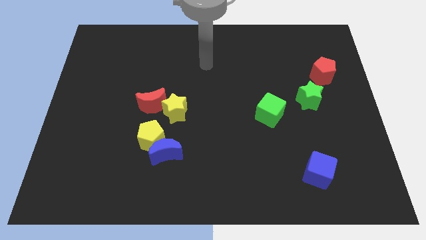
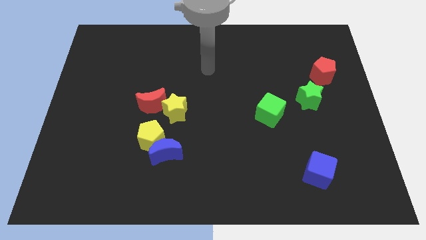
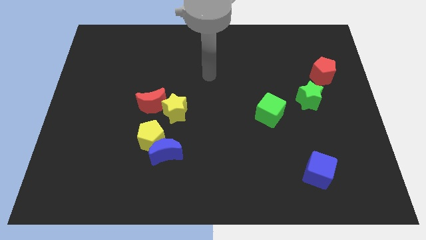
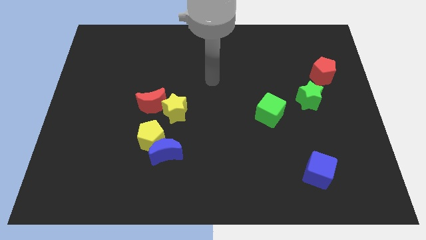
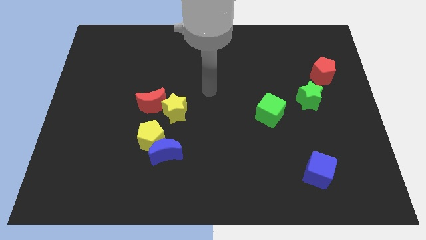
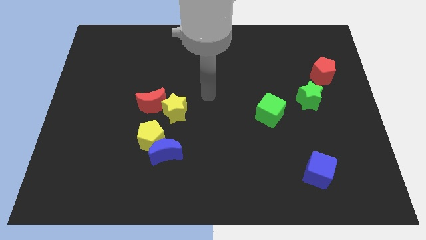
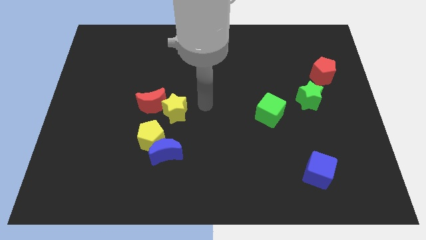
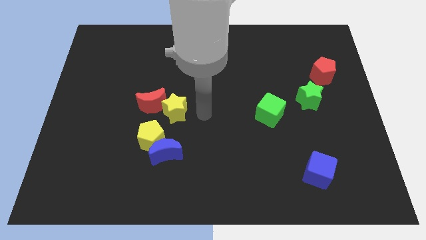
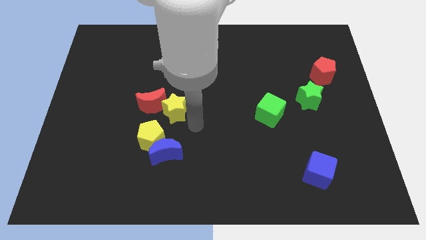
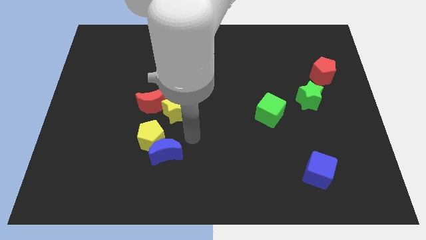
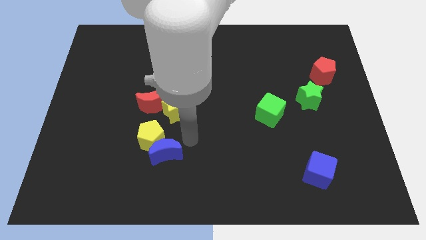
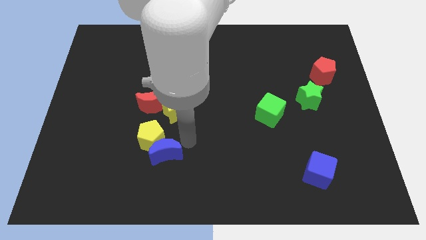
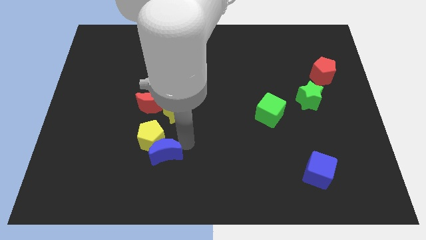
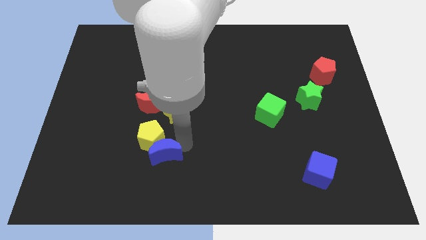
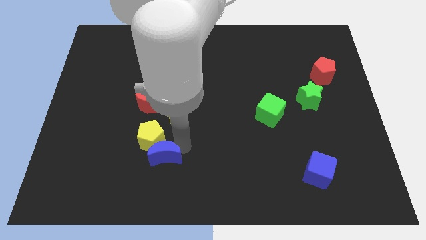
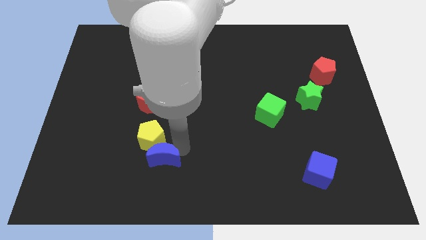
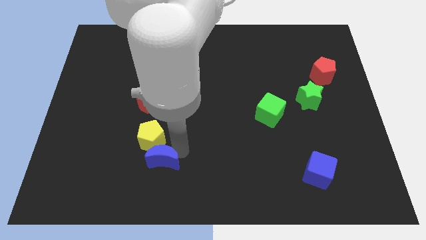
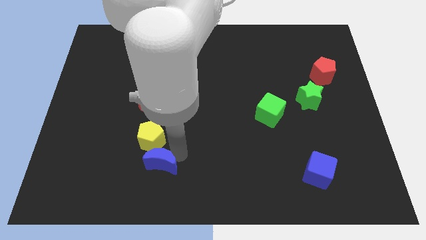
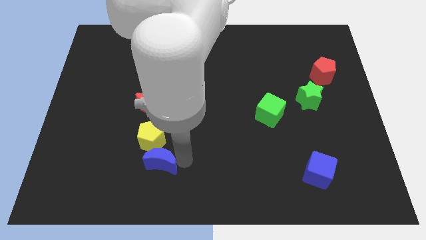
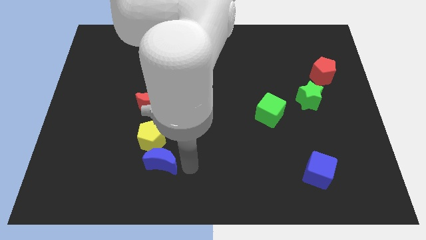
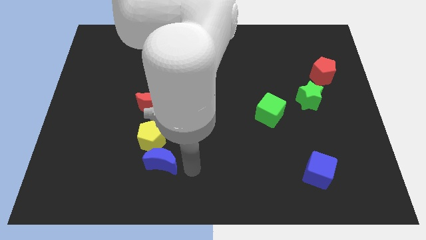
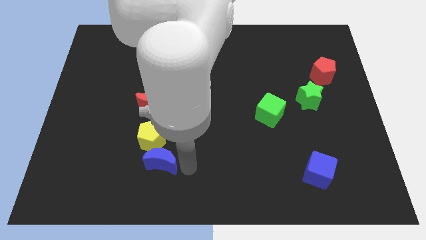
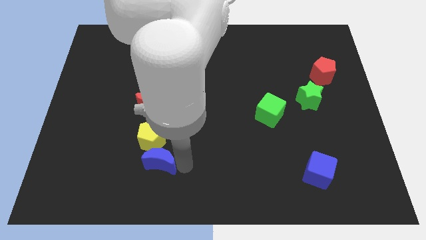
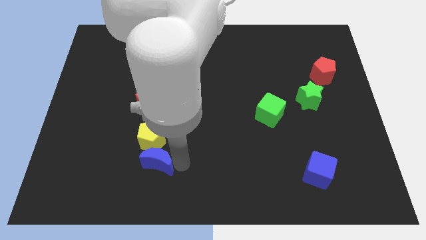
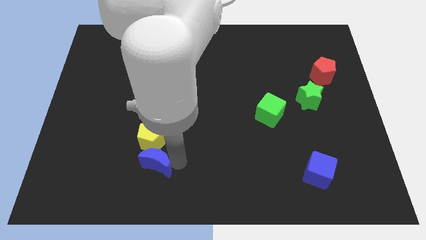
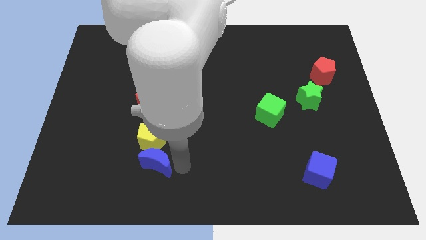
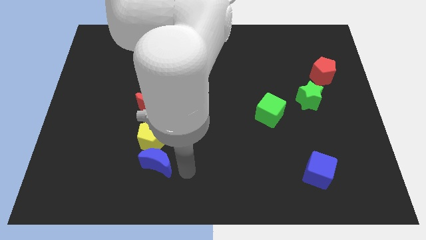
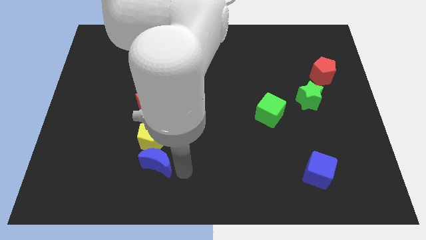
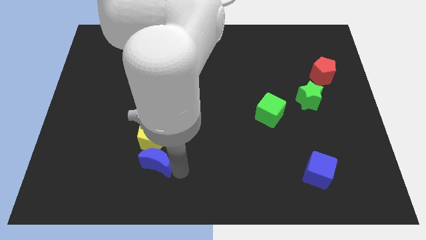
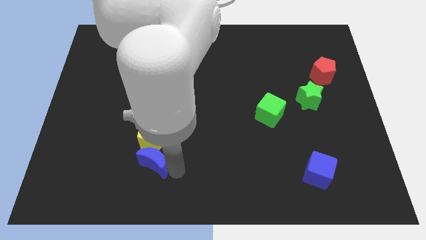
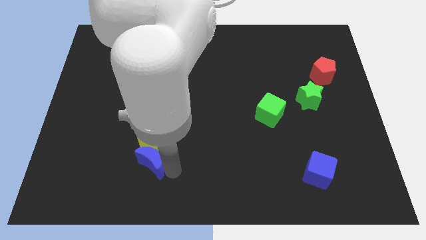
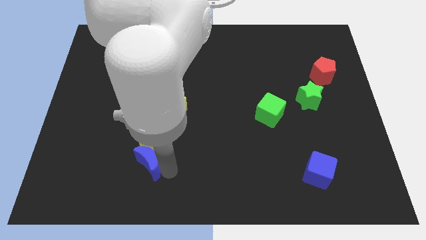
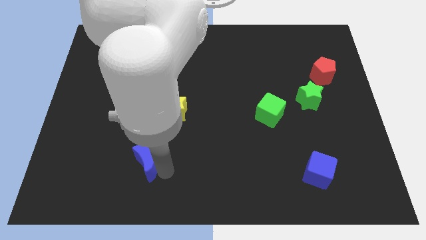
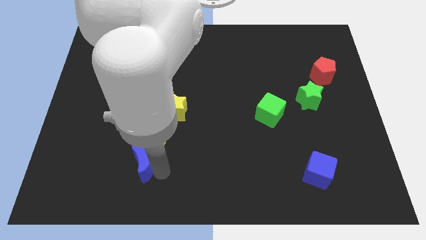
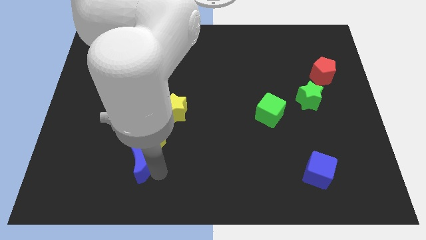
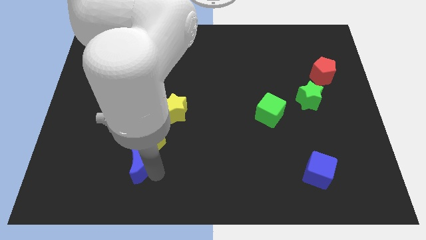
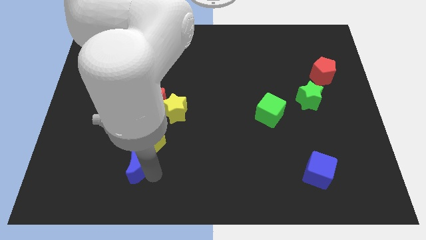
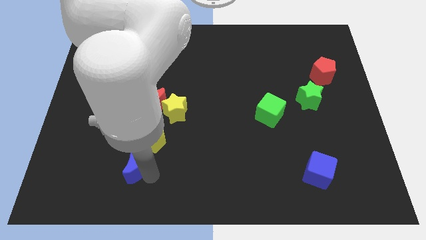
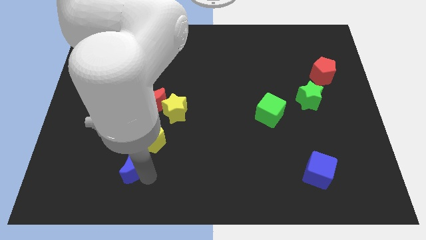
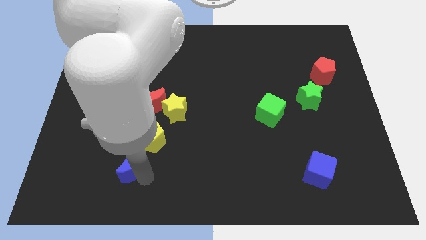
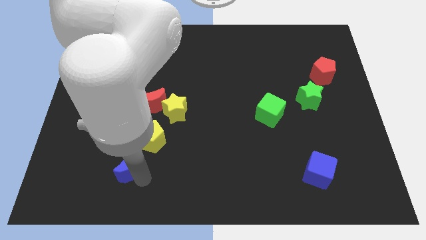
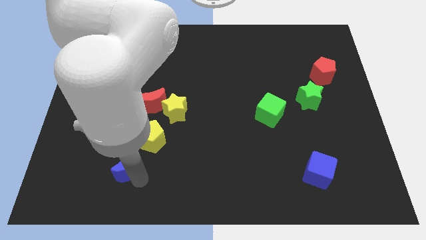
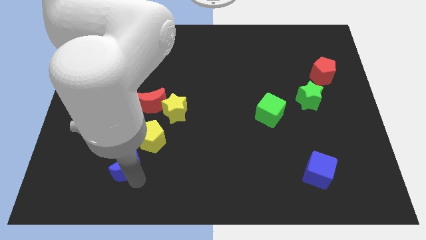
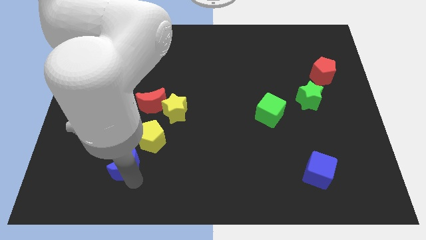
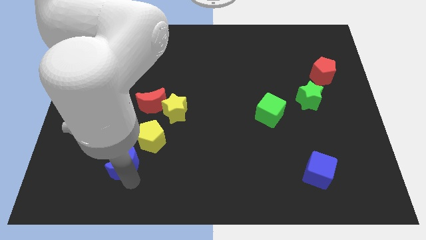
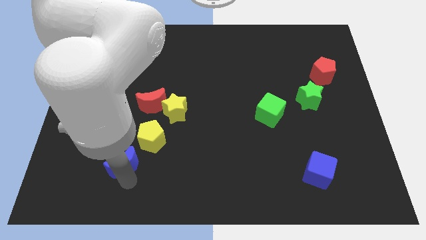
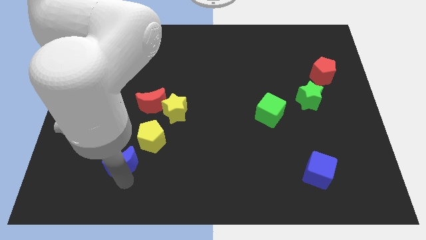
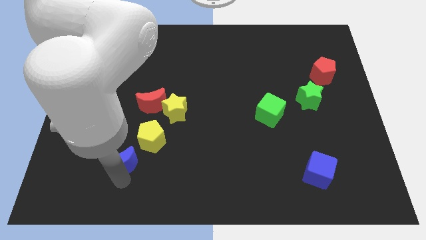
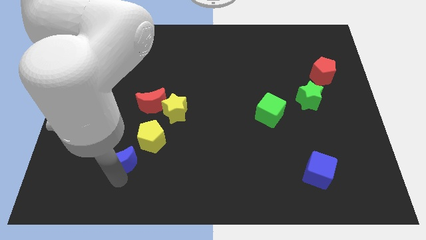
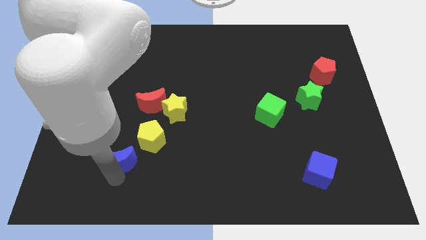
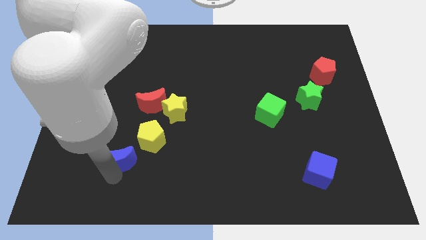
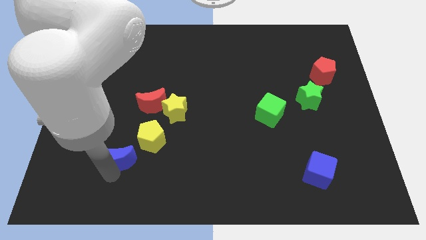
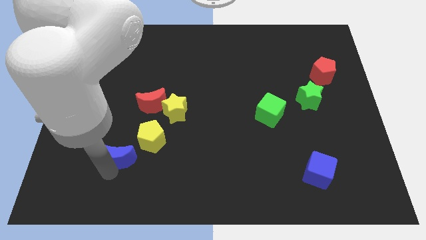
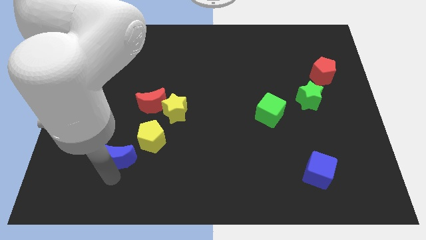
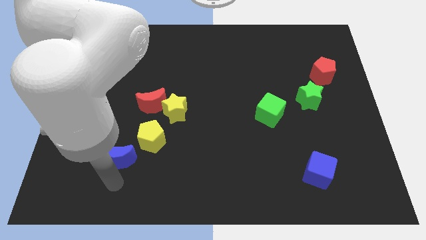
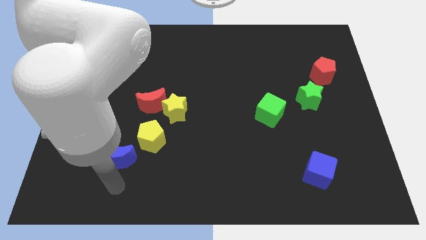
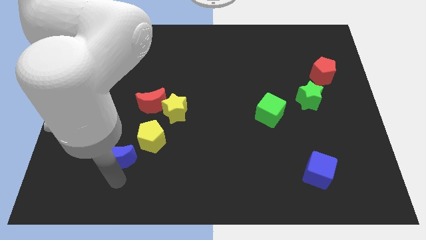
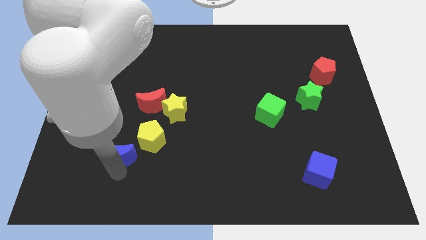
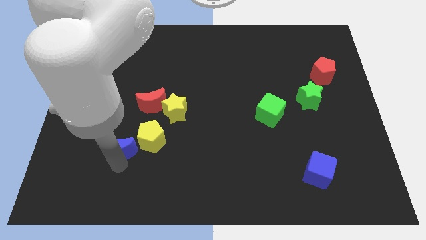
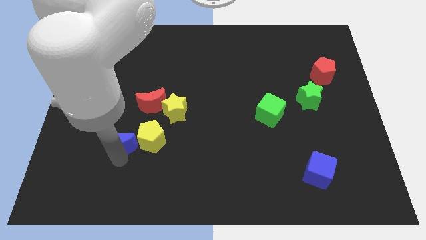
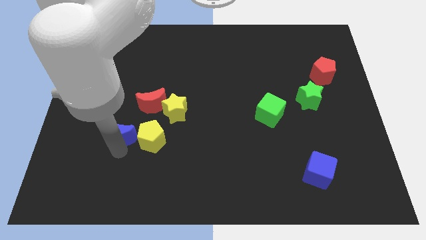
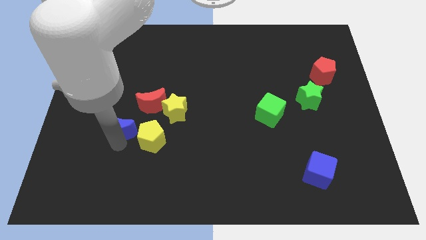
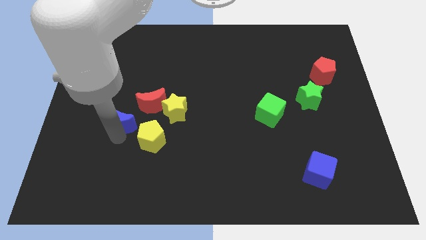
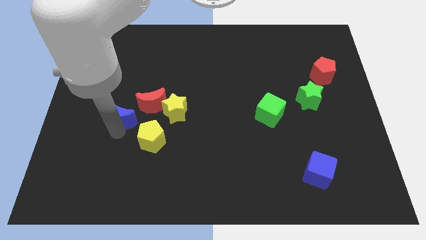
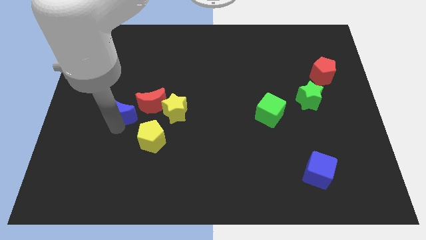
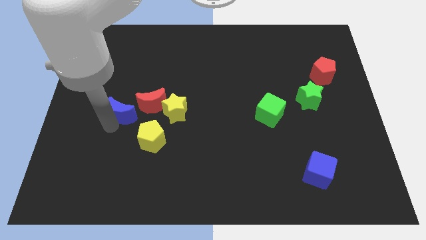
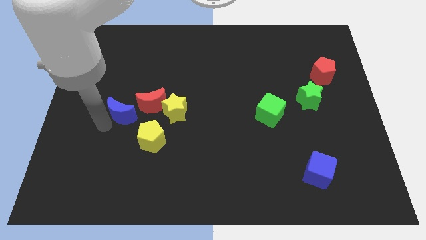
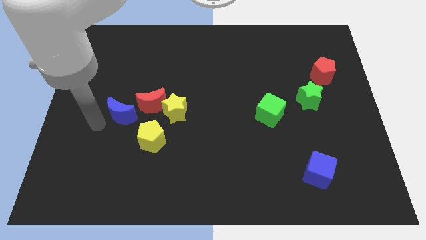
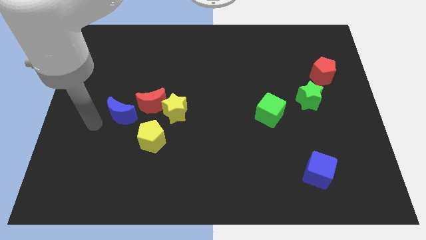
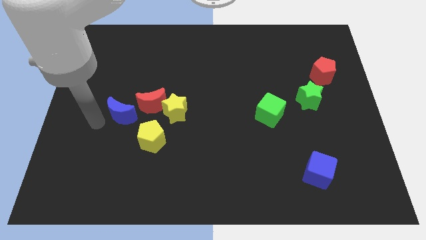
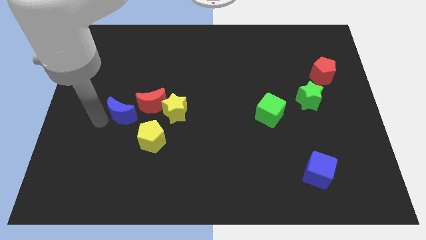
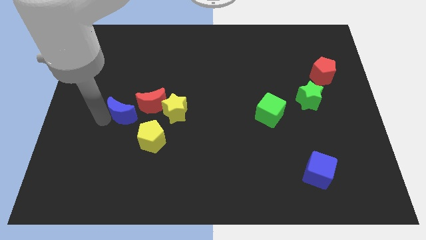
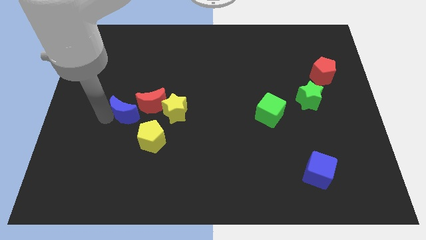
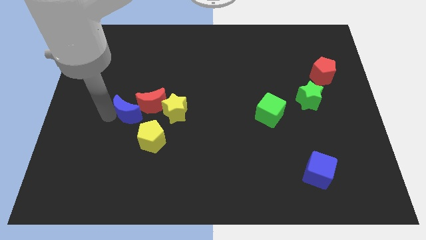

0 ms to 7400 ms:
move the blue moon next to the red moon
